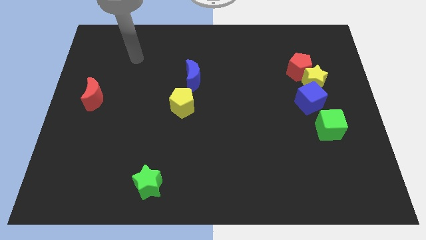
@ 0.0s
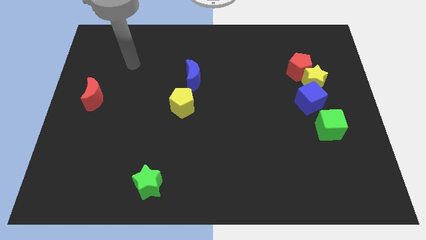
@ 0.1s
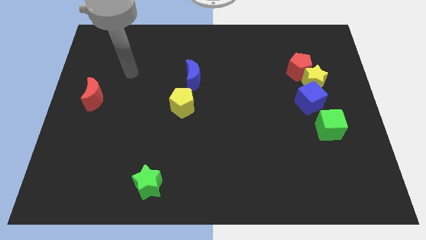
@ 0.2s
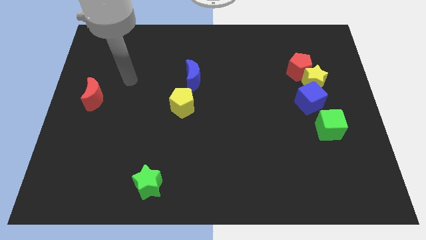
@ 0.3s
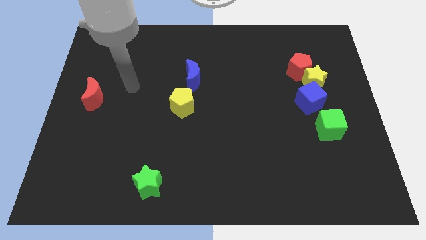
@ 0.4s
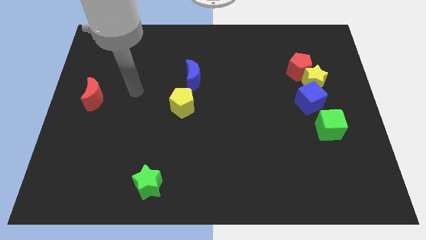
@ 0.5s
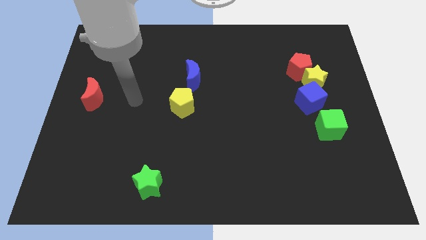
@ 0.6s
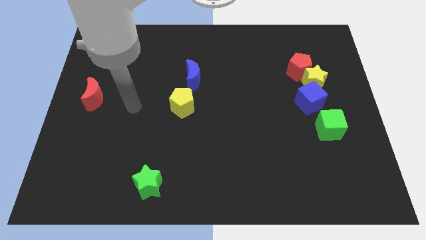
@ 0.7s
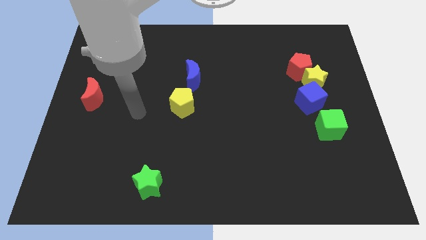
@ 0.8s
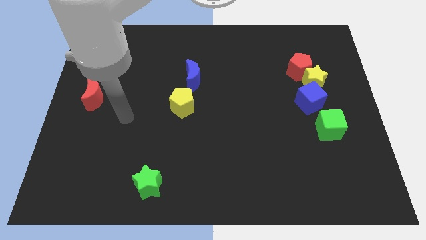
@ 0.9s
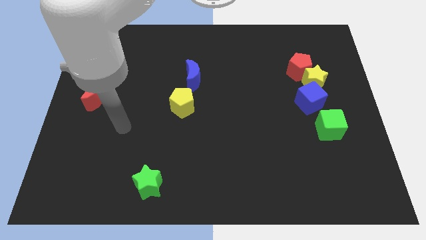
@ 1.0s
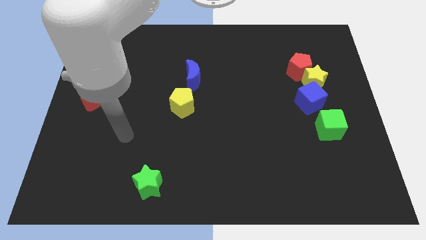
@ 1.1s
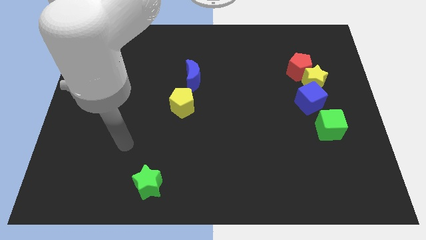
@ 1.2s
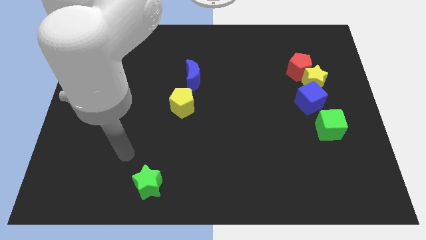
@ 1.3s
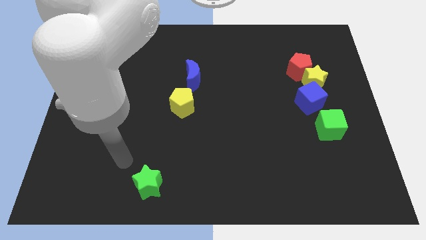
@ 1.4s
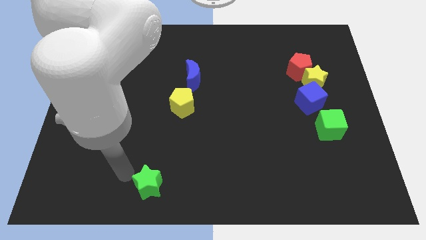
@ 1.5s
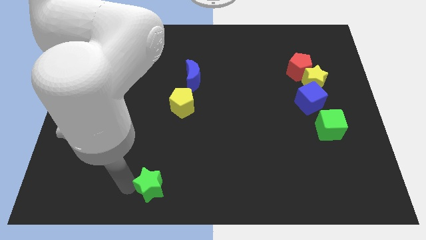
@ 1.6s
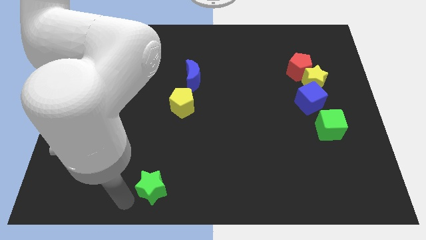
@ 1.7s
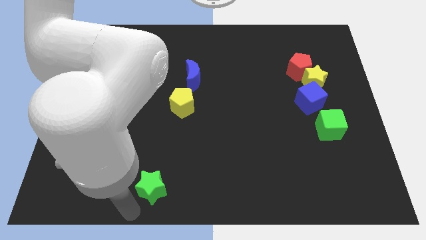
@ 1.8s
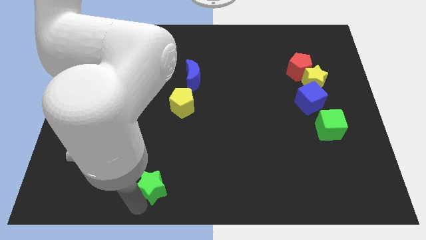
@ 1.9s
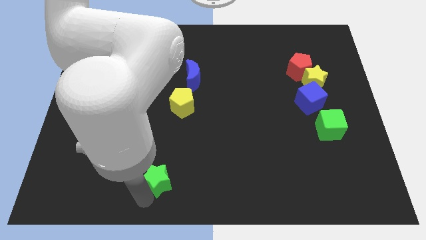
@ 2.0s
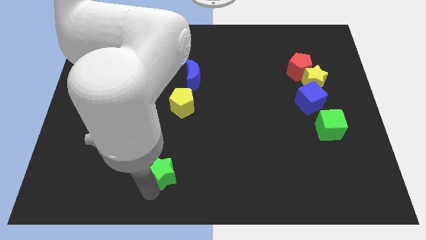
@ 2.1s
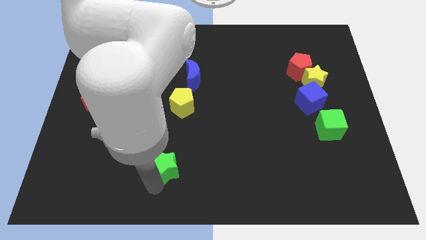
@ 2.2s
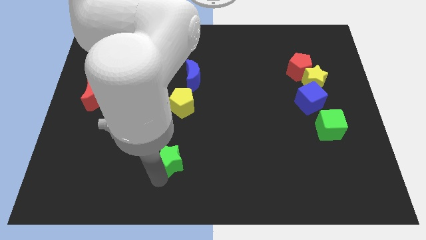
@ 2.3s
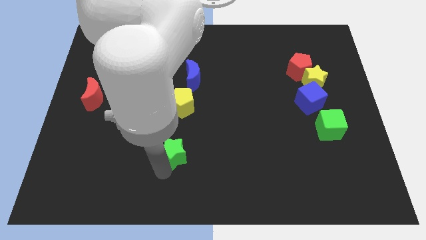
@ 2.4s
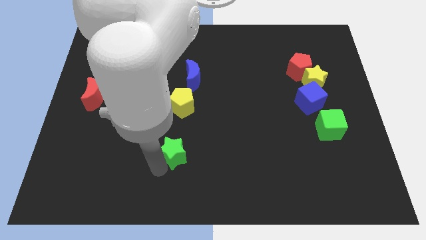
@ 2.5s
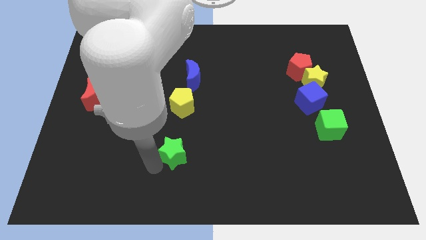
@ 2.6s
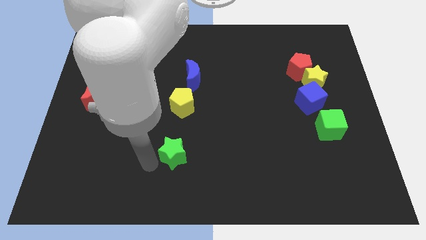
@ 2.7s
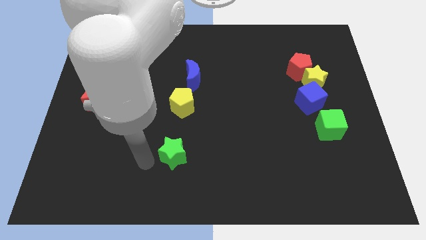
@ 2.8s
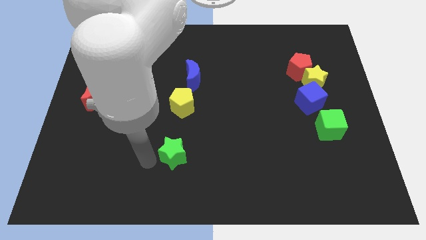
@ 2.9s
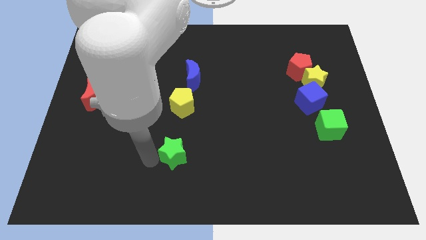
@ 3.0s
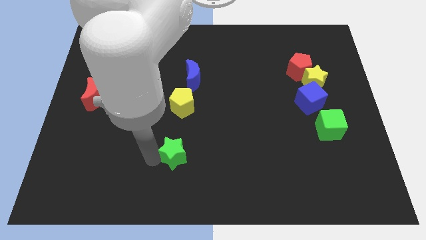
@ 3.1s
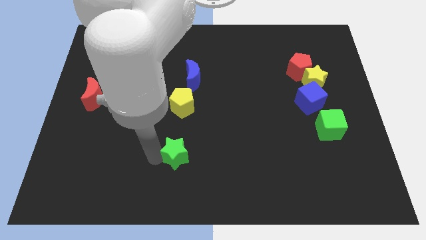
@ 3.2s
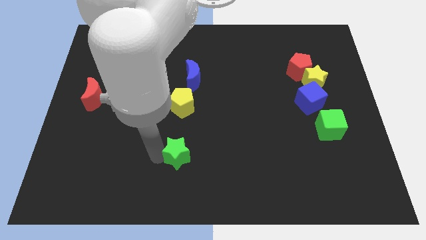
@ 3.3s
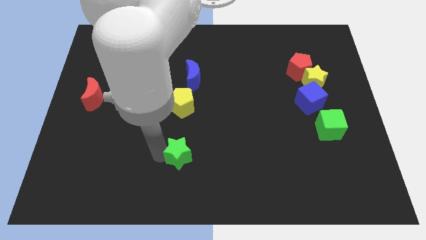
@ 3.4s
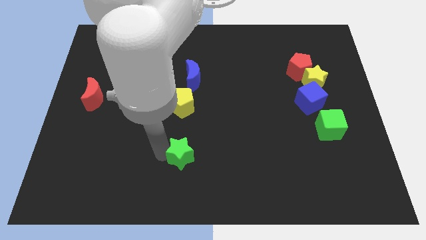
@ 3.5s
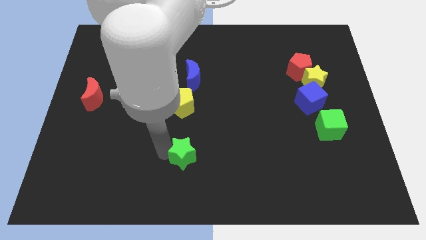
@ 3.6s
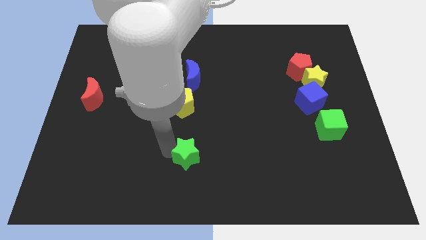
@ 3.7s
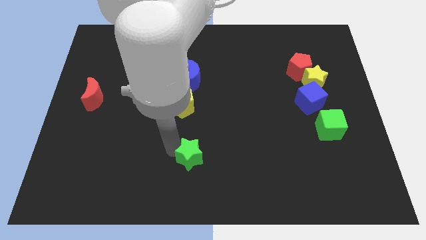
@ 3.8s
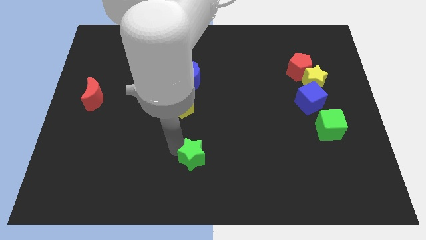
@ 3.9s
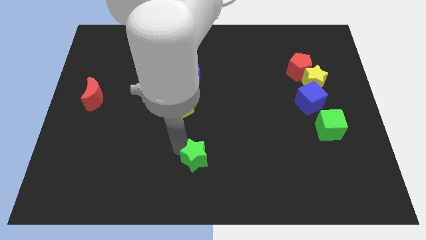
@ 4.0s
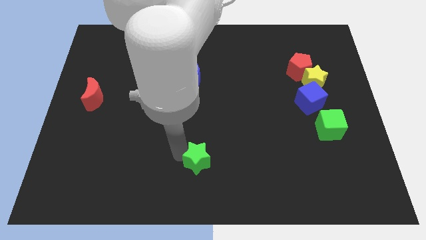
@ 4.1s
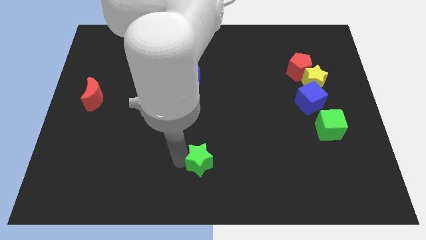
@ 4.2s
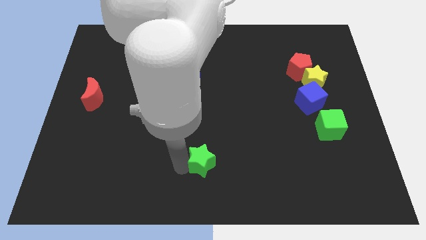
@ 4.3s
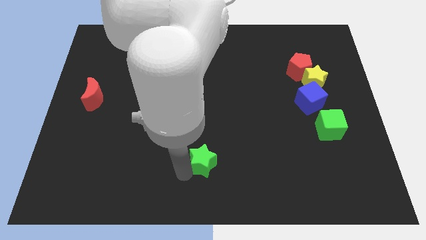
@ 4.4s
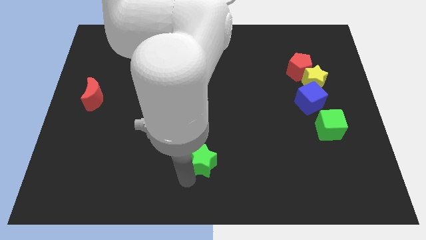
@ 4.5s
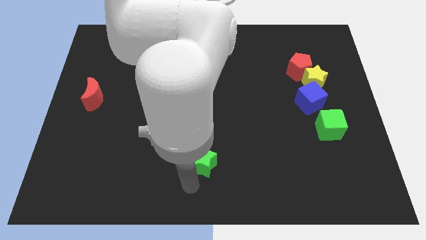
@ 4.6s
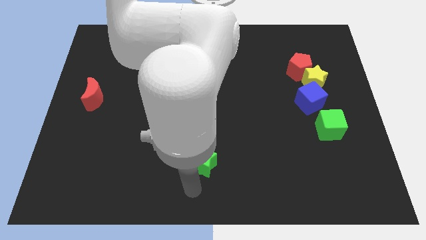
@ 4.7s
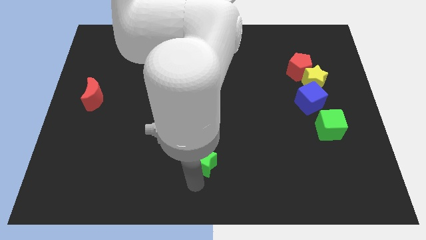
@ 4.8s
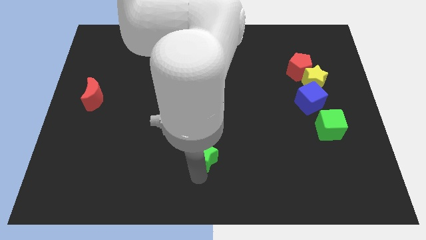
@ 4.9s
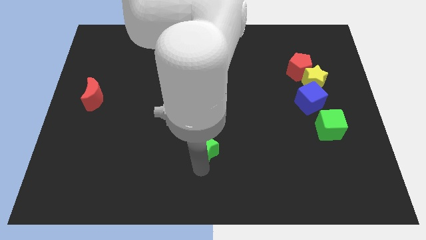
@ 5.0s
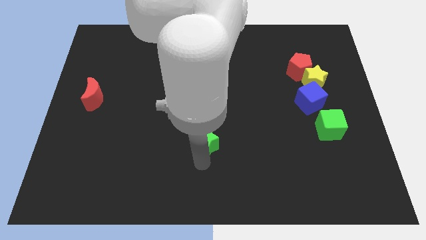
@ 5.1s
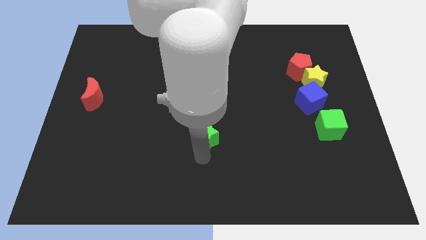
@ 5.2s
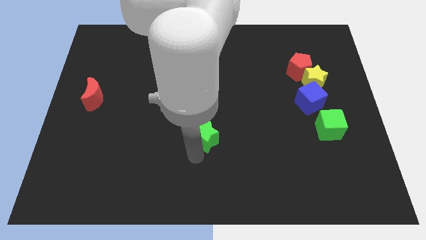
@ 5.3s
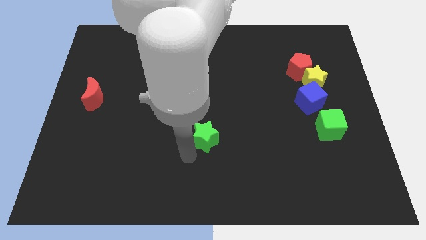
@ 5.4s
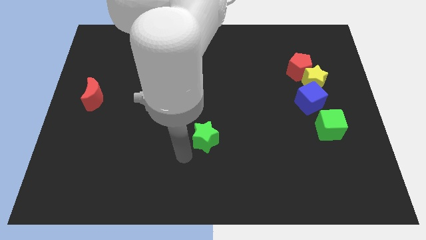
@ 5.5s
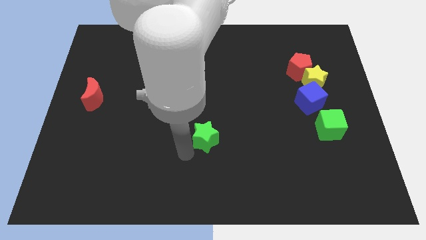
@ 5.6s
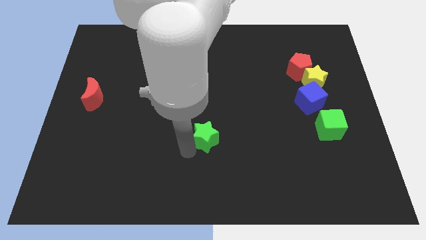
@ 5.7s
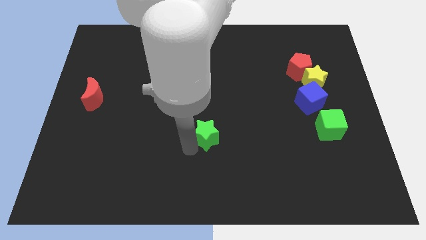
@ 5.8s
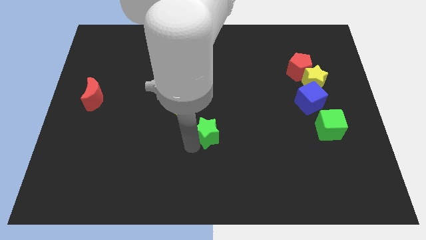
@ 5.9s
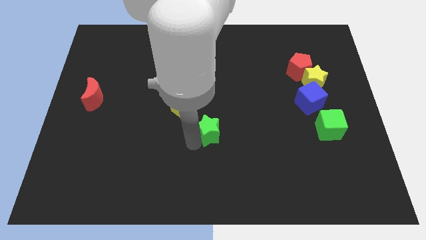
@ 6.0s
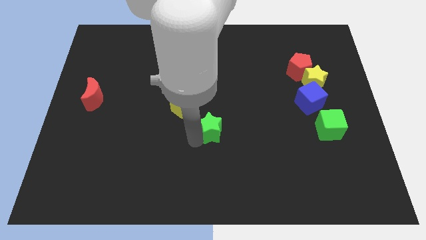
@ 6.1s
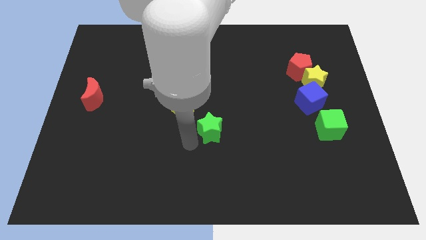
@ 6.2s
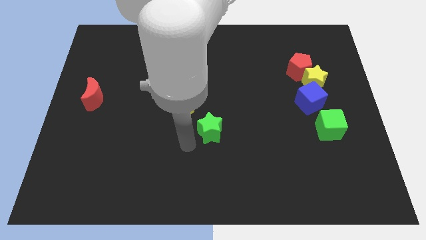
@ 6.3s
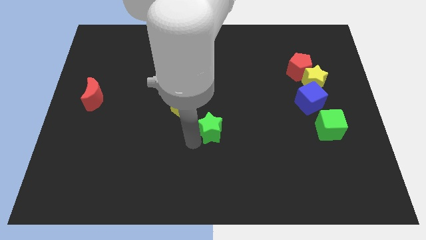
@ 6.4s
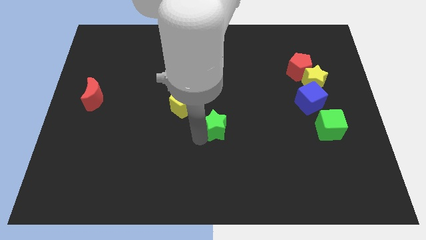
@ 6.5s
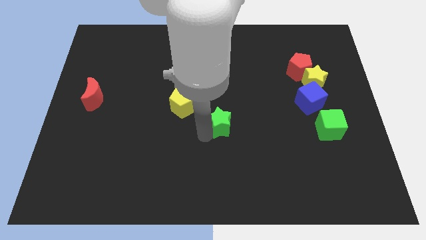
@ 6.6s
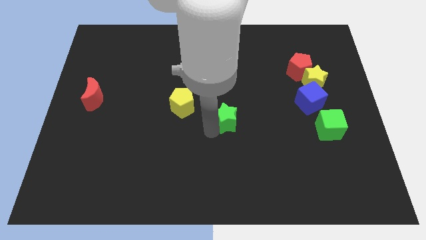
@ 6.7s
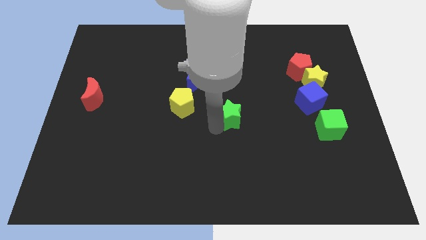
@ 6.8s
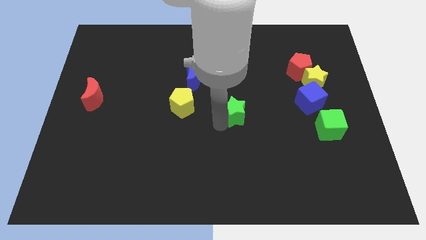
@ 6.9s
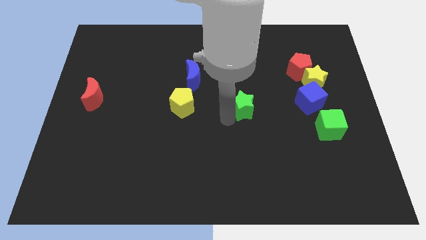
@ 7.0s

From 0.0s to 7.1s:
push the green star left of the blue cube
